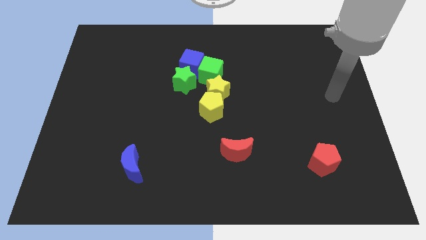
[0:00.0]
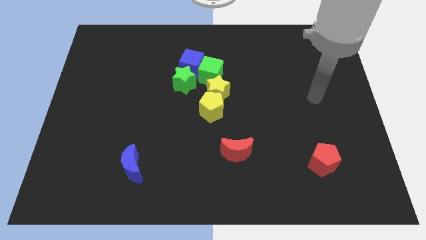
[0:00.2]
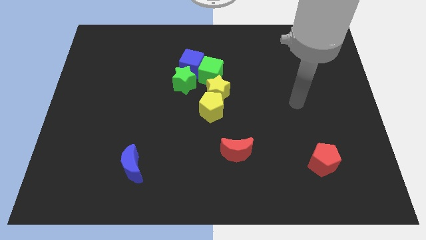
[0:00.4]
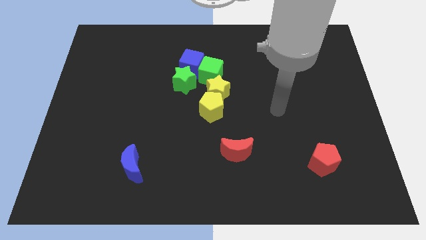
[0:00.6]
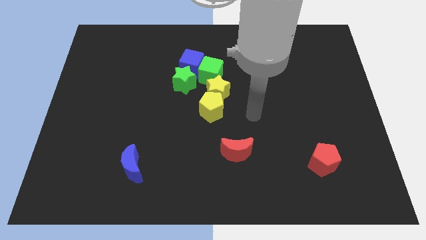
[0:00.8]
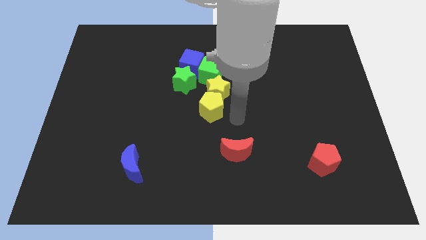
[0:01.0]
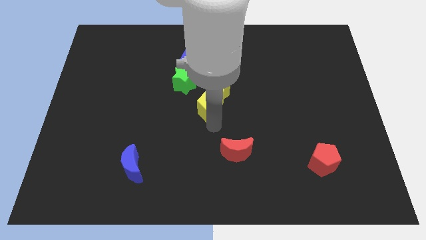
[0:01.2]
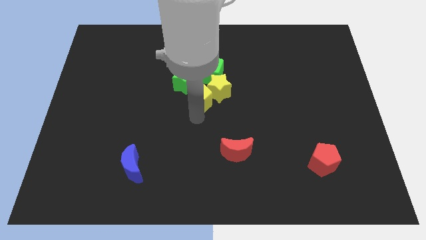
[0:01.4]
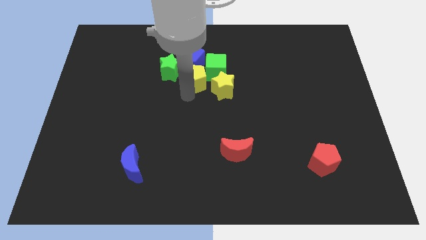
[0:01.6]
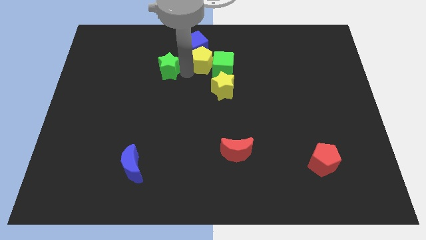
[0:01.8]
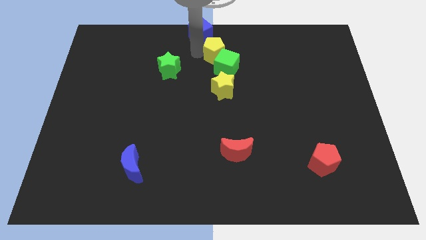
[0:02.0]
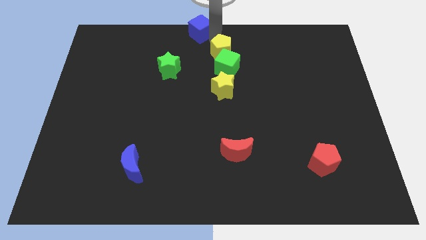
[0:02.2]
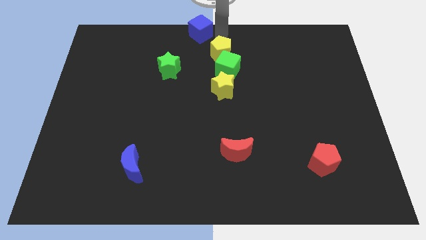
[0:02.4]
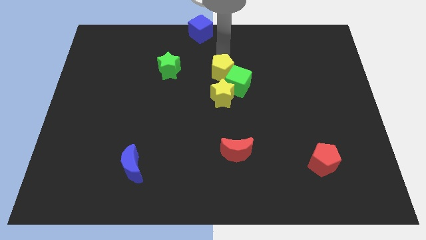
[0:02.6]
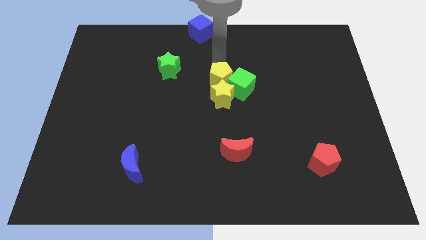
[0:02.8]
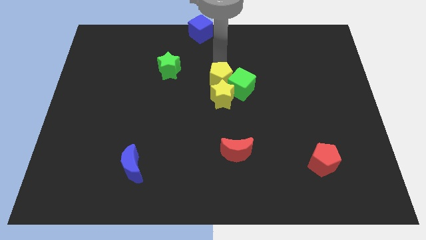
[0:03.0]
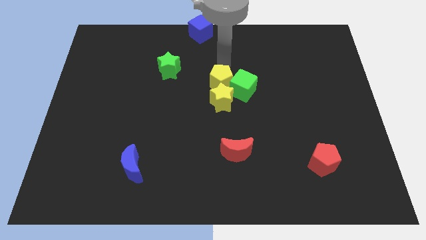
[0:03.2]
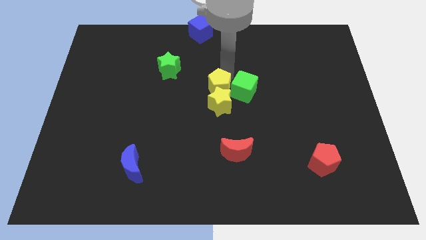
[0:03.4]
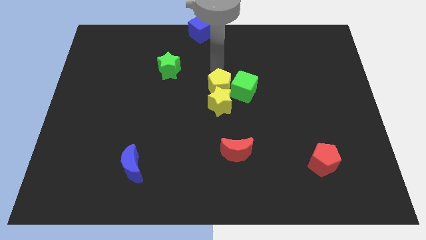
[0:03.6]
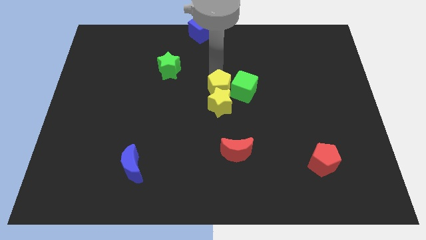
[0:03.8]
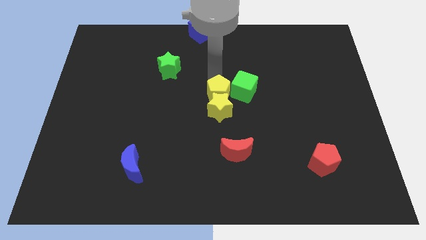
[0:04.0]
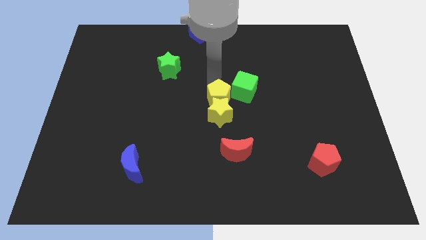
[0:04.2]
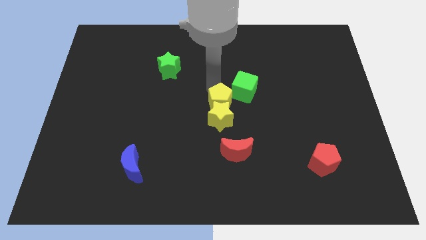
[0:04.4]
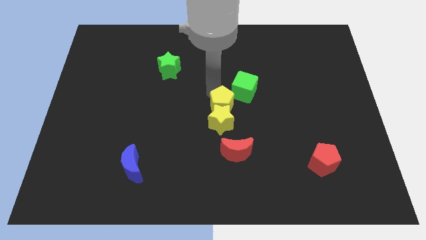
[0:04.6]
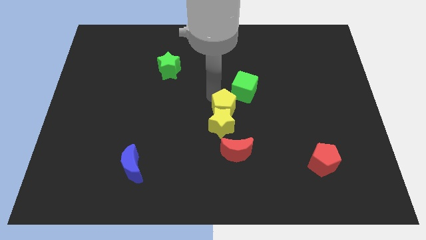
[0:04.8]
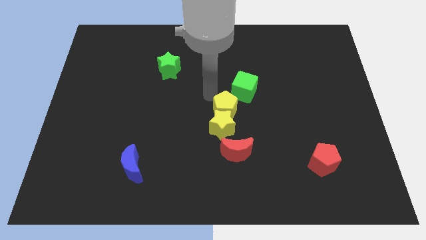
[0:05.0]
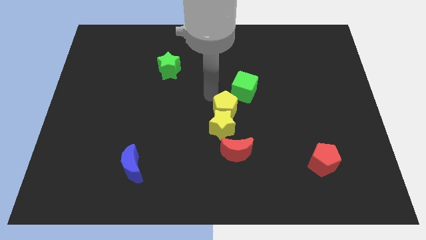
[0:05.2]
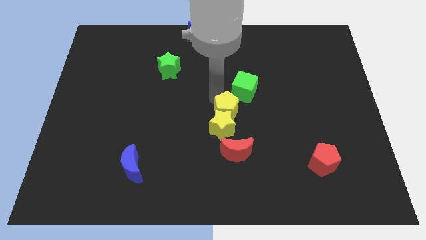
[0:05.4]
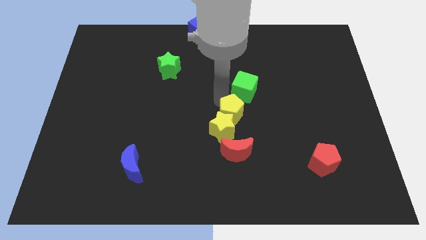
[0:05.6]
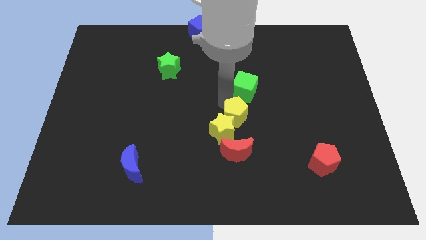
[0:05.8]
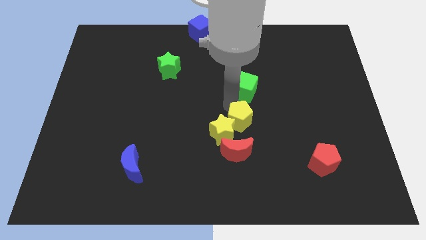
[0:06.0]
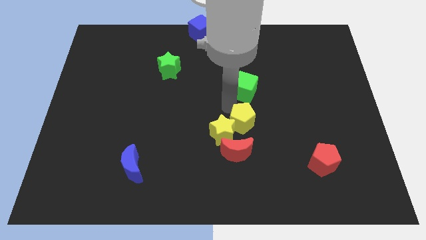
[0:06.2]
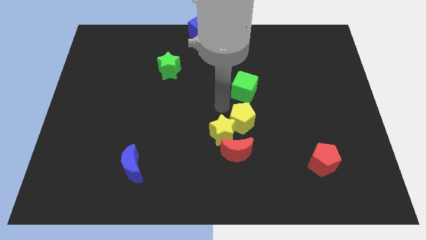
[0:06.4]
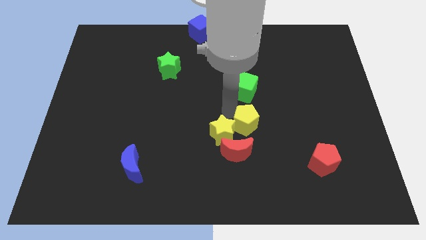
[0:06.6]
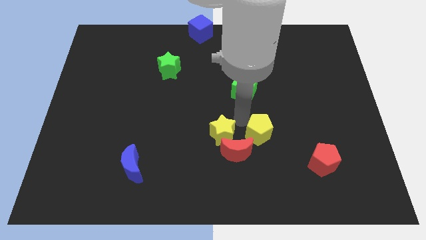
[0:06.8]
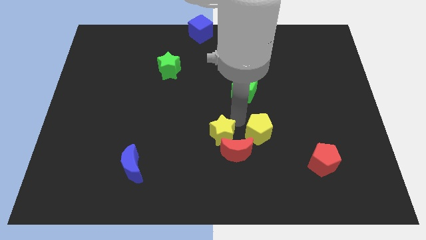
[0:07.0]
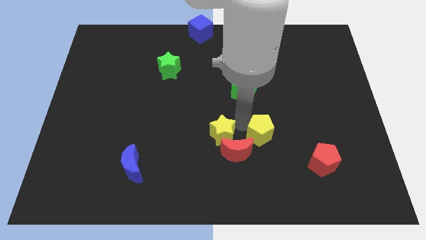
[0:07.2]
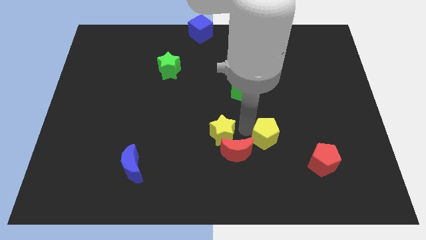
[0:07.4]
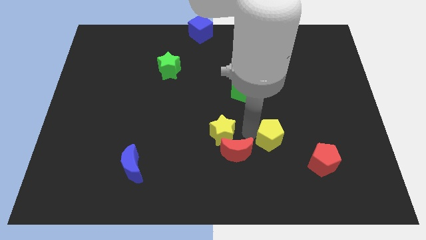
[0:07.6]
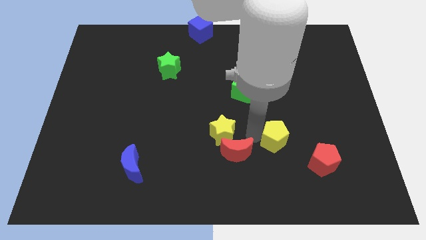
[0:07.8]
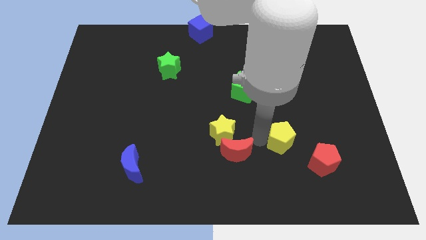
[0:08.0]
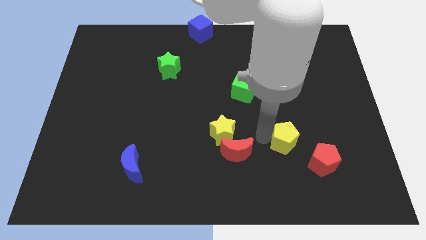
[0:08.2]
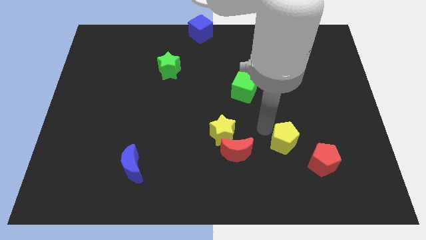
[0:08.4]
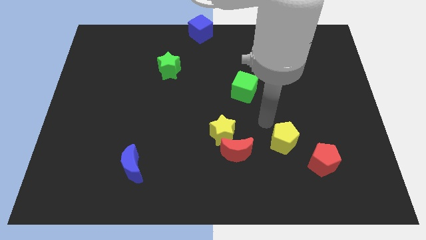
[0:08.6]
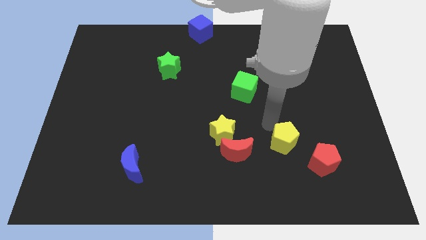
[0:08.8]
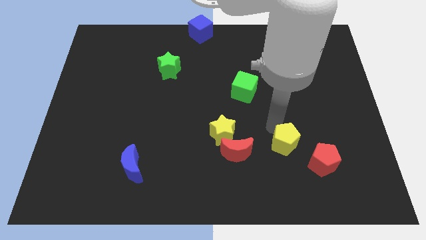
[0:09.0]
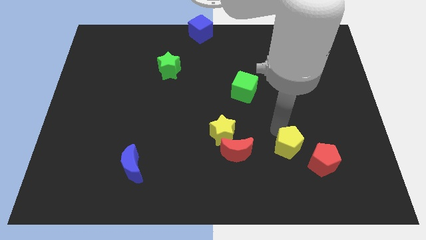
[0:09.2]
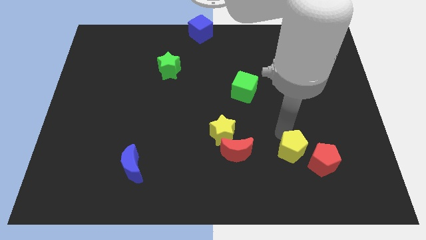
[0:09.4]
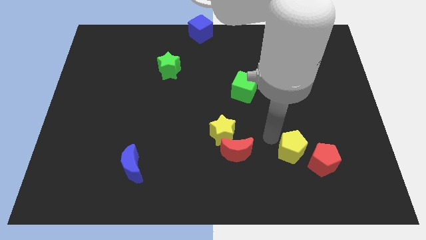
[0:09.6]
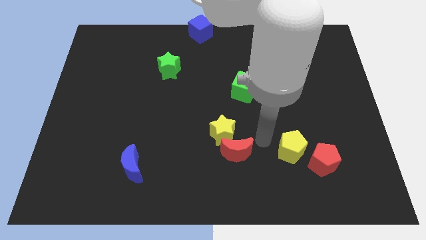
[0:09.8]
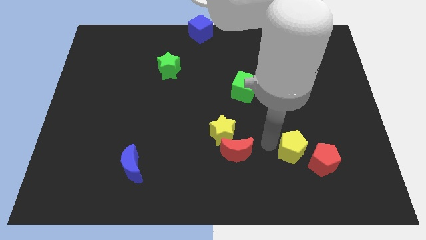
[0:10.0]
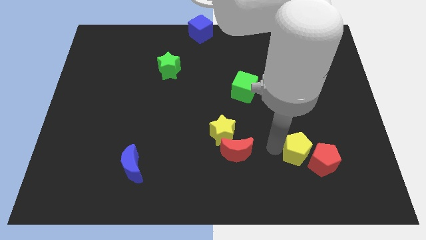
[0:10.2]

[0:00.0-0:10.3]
slide the yellow pentagon towards the red pentagon

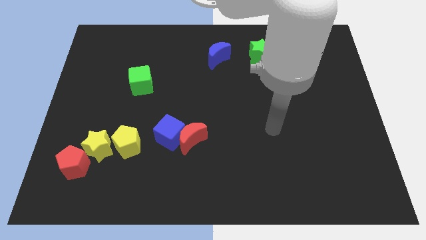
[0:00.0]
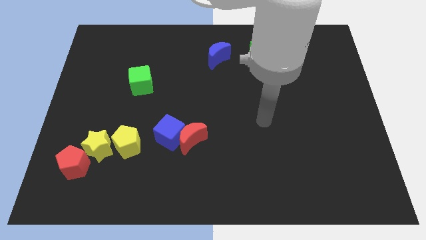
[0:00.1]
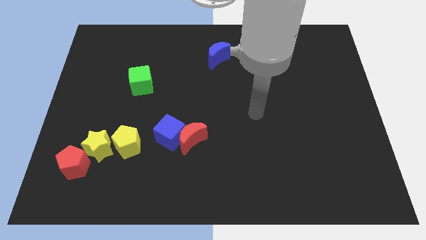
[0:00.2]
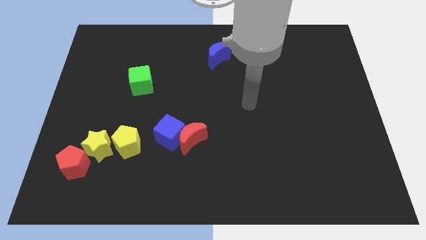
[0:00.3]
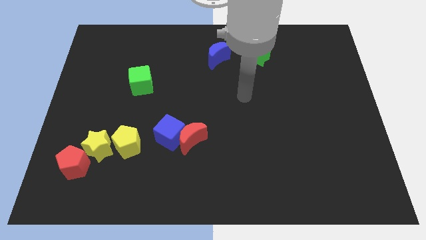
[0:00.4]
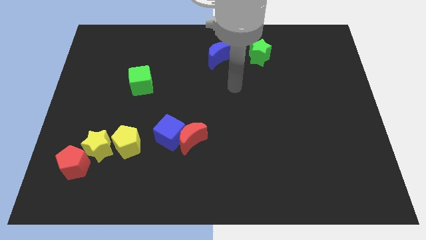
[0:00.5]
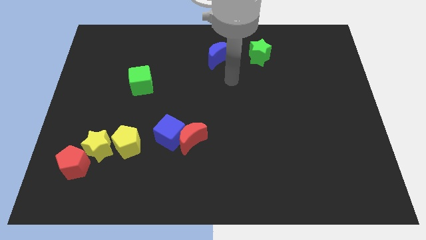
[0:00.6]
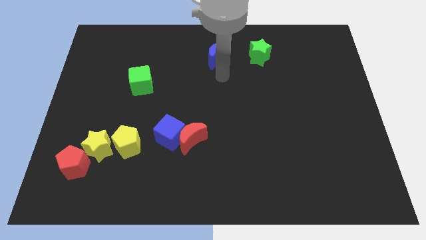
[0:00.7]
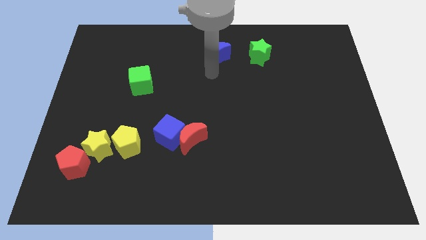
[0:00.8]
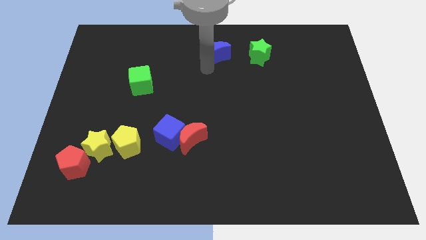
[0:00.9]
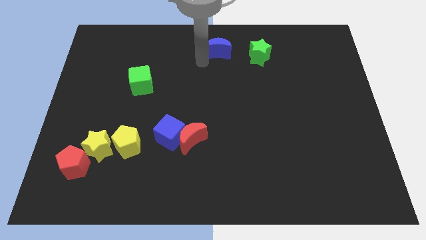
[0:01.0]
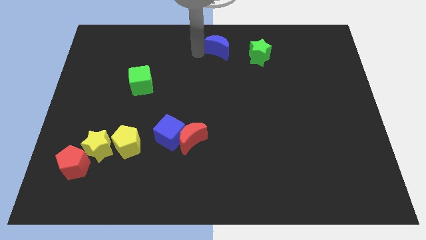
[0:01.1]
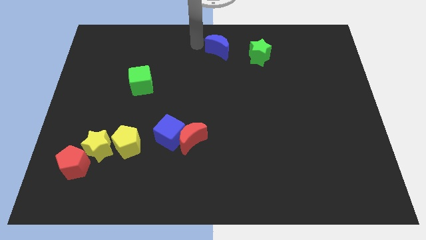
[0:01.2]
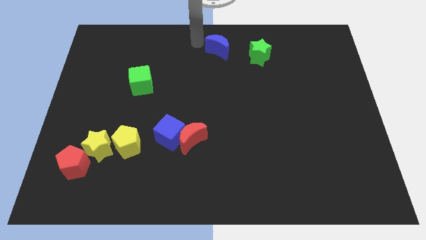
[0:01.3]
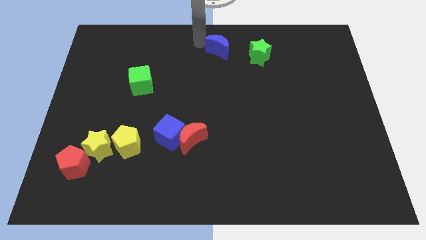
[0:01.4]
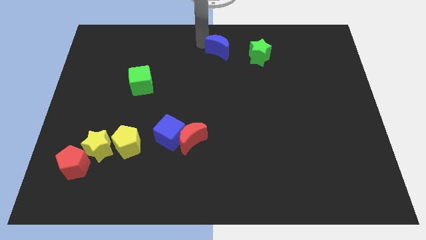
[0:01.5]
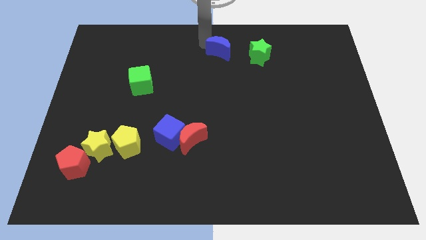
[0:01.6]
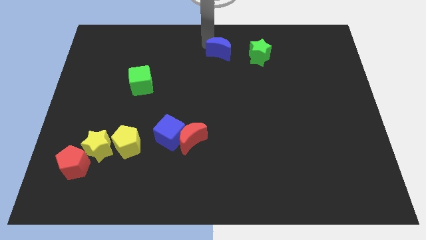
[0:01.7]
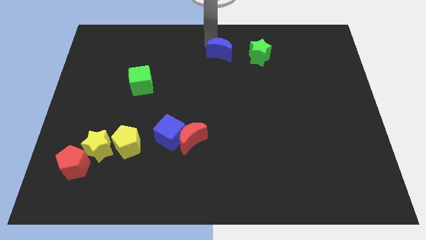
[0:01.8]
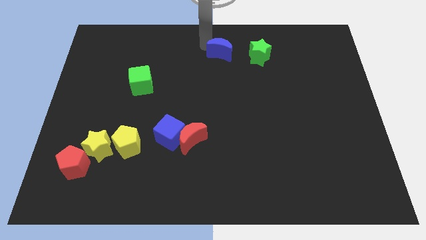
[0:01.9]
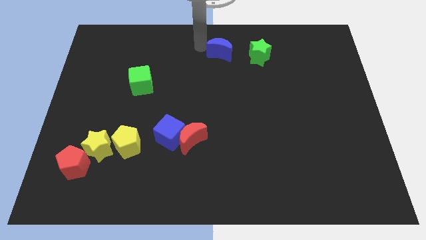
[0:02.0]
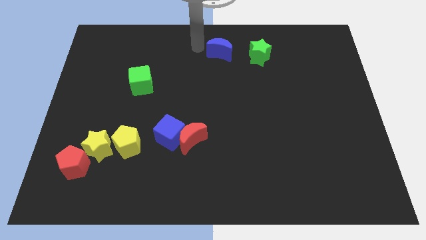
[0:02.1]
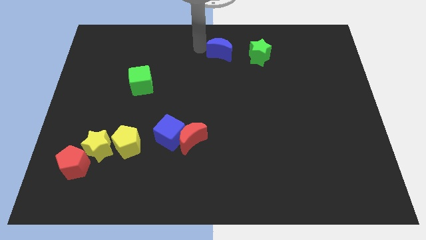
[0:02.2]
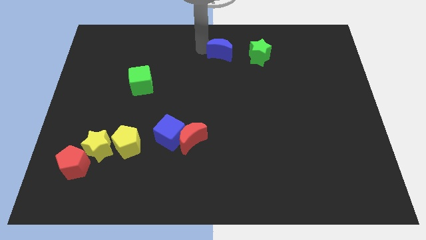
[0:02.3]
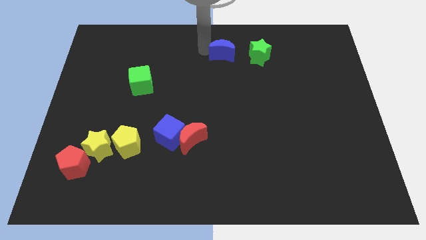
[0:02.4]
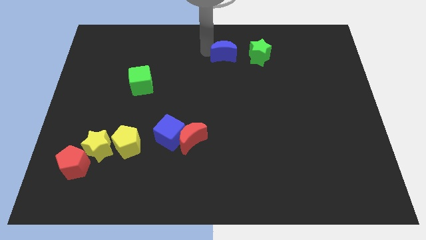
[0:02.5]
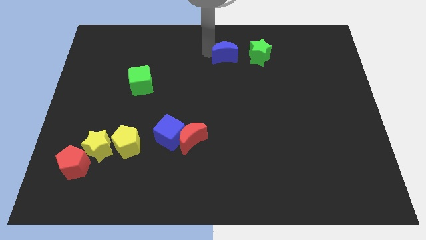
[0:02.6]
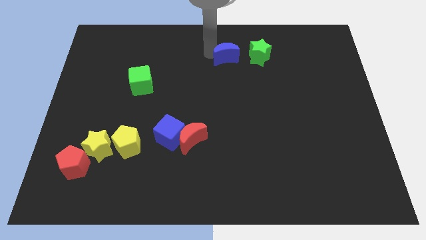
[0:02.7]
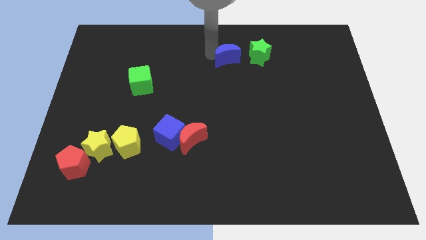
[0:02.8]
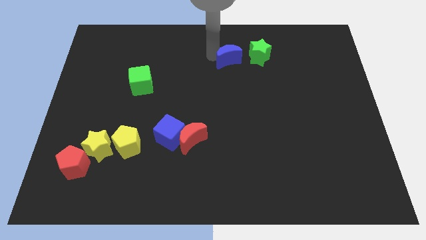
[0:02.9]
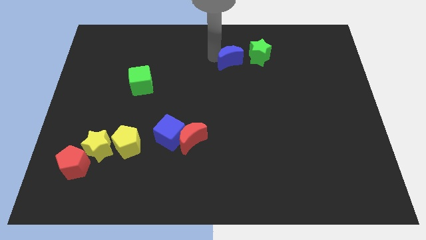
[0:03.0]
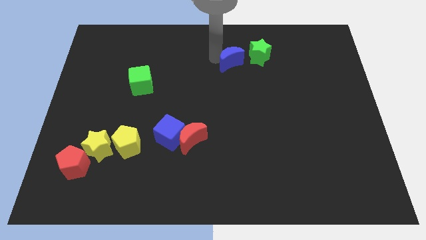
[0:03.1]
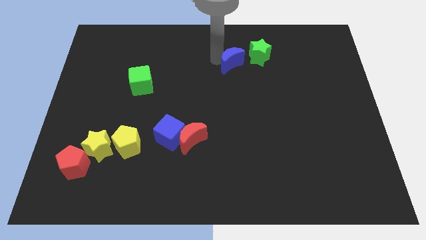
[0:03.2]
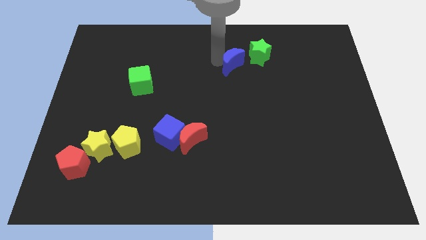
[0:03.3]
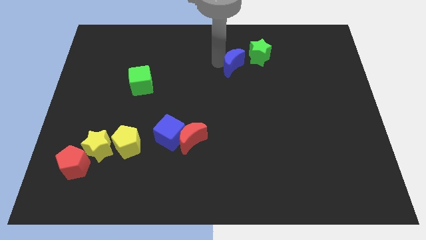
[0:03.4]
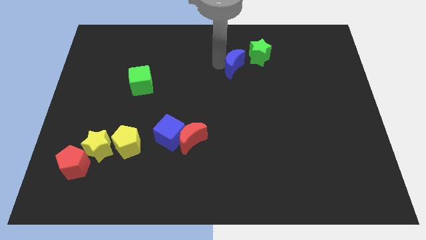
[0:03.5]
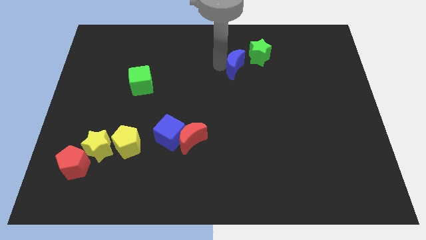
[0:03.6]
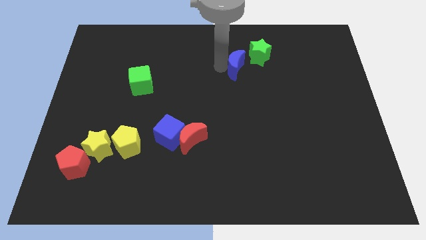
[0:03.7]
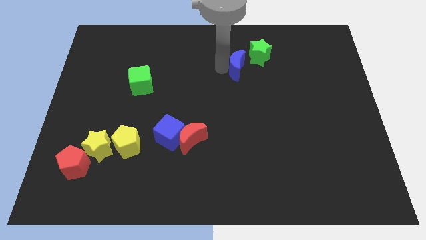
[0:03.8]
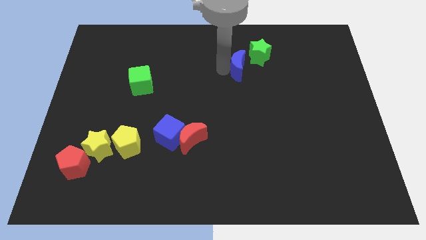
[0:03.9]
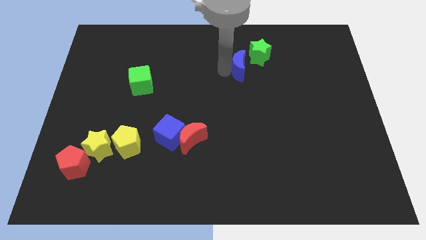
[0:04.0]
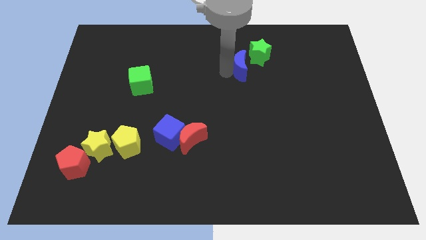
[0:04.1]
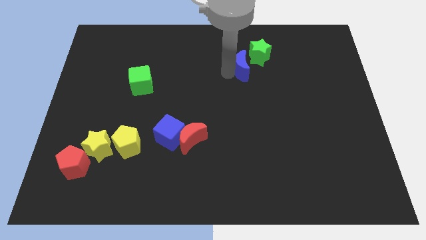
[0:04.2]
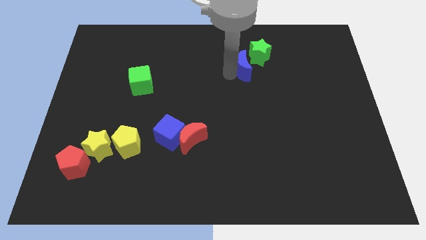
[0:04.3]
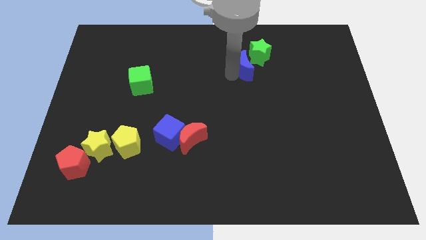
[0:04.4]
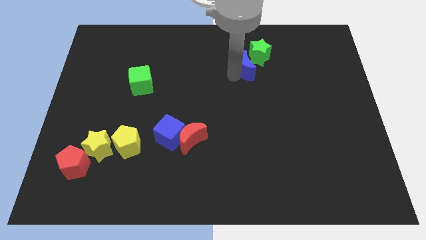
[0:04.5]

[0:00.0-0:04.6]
slide the blue moon towards the green star
